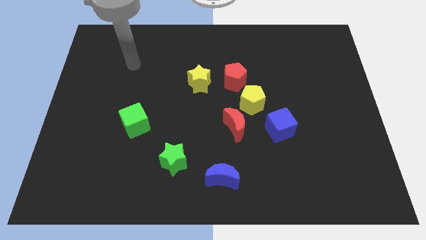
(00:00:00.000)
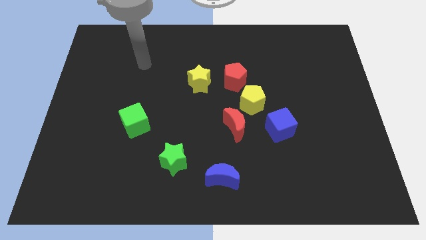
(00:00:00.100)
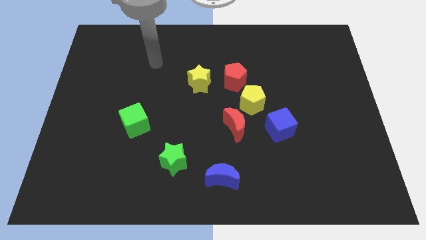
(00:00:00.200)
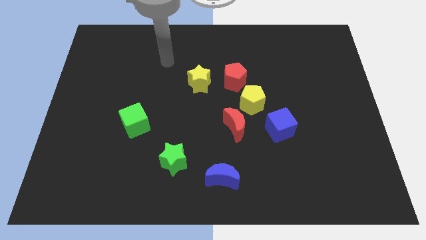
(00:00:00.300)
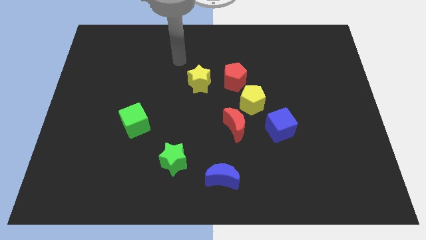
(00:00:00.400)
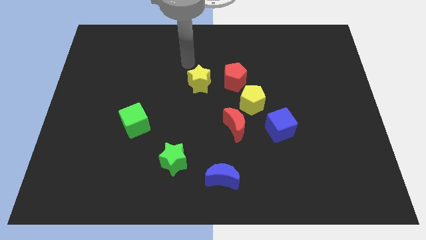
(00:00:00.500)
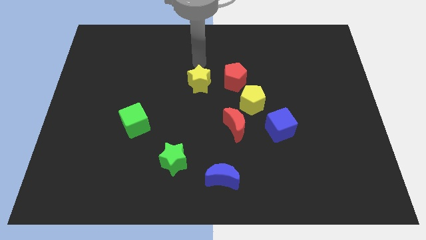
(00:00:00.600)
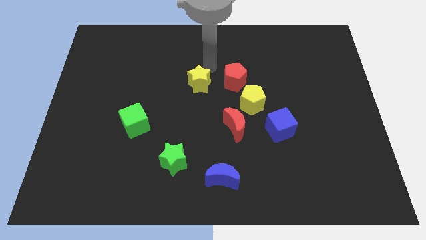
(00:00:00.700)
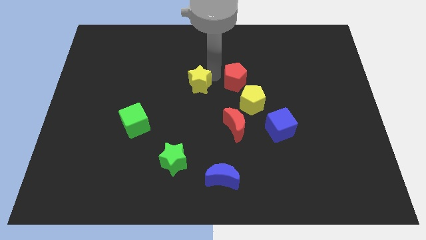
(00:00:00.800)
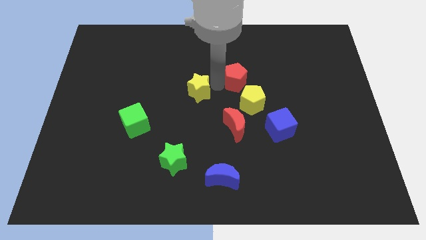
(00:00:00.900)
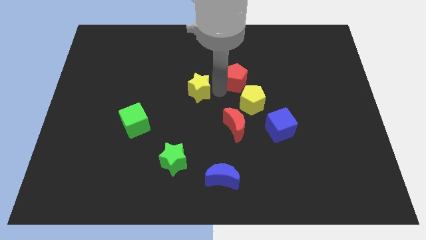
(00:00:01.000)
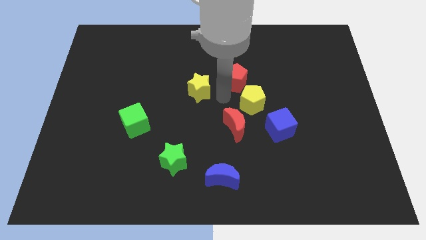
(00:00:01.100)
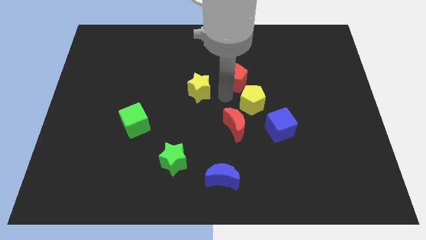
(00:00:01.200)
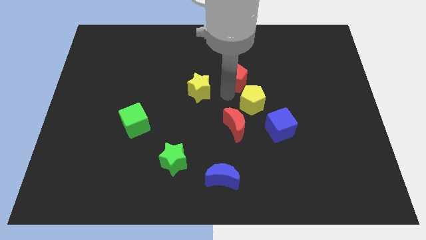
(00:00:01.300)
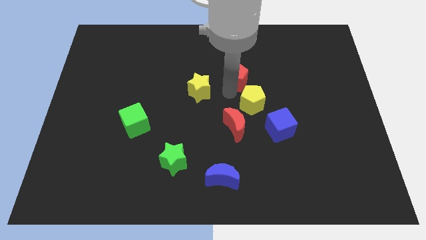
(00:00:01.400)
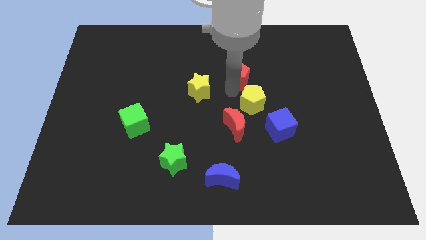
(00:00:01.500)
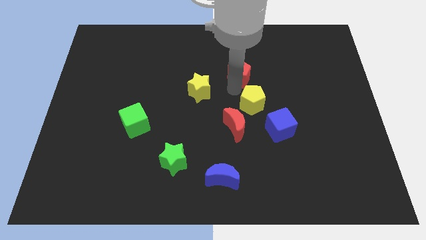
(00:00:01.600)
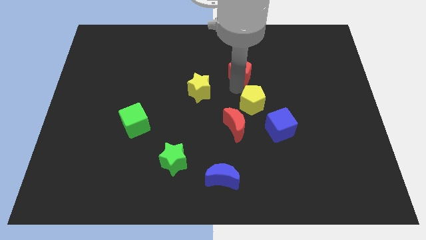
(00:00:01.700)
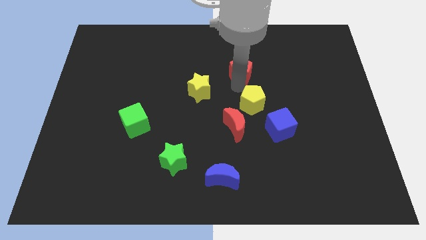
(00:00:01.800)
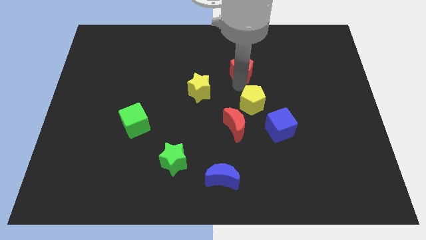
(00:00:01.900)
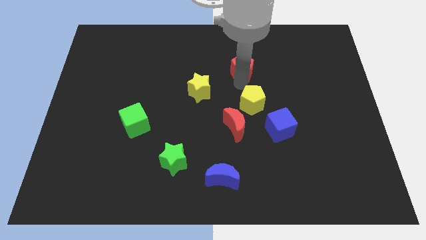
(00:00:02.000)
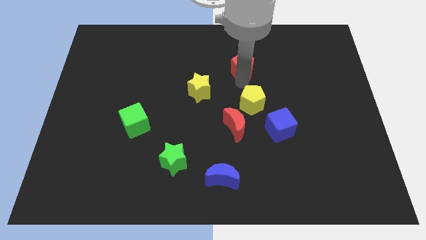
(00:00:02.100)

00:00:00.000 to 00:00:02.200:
move the red pentagon away from the yellow pentagon and yellow star

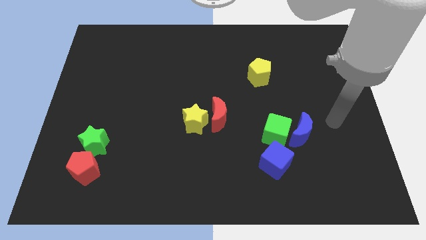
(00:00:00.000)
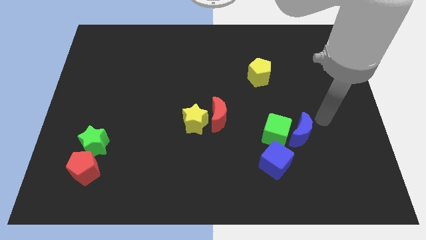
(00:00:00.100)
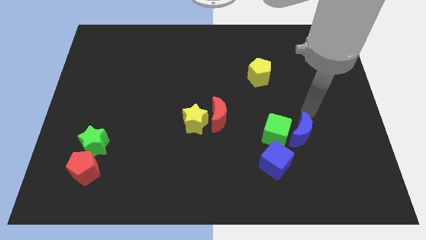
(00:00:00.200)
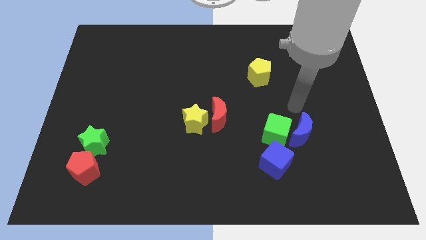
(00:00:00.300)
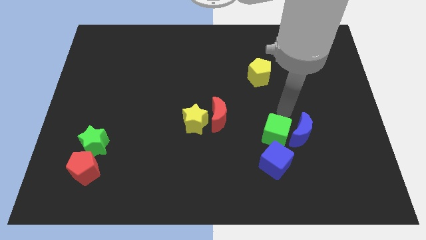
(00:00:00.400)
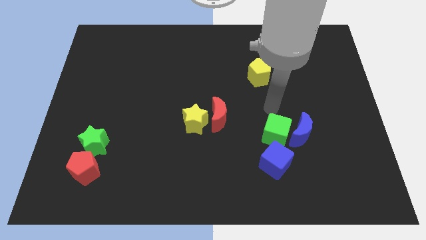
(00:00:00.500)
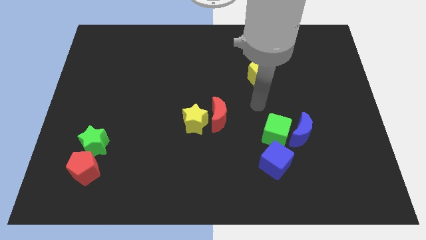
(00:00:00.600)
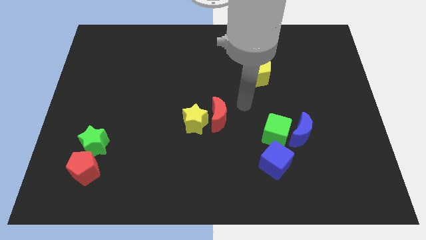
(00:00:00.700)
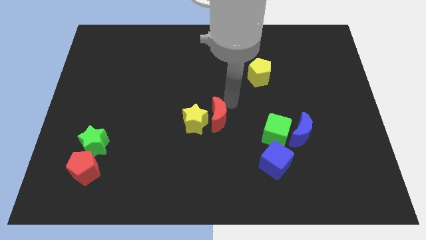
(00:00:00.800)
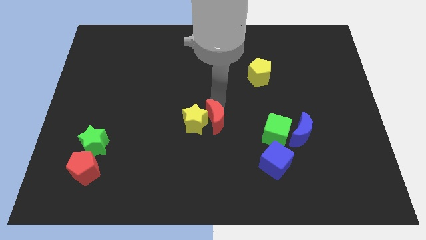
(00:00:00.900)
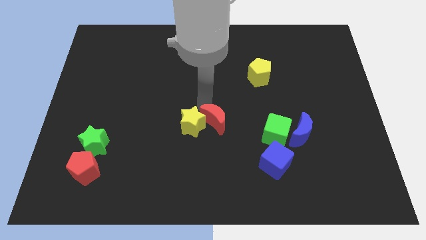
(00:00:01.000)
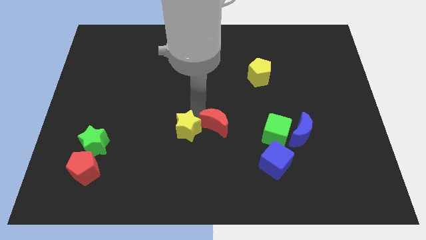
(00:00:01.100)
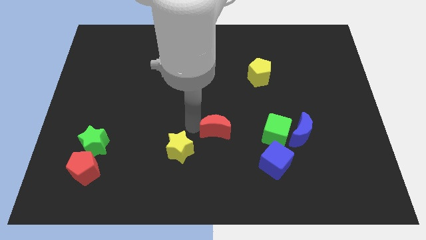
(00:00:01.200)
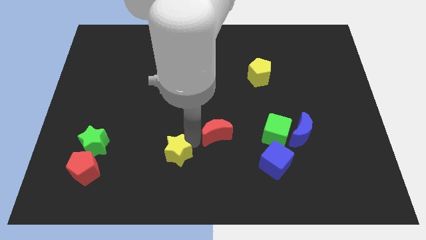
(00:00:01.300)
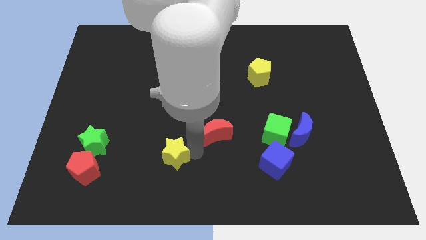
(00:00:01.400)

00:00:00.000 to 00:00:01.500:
move the red moon away from the yellow star

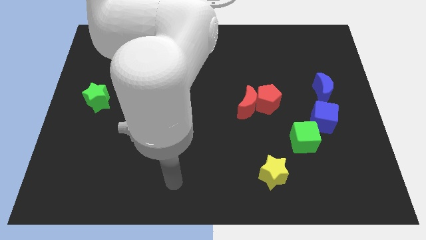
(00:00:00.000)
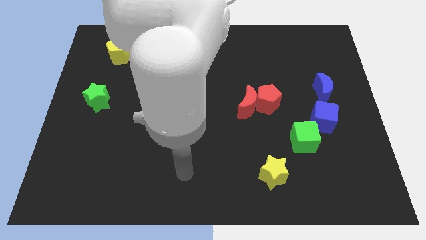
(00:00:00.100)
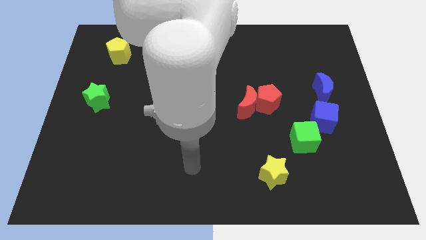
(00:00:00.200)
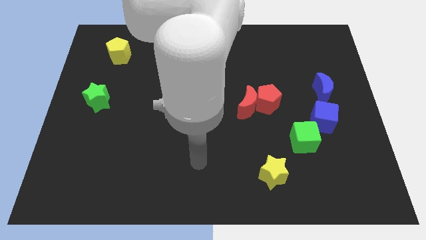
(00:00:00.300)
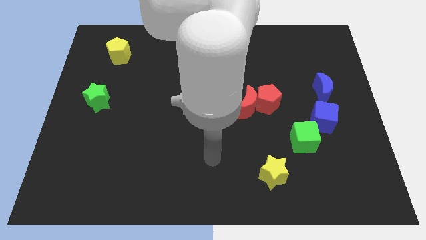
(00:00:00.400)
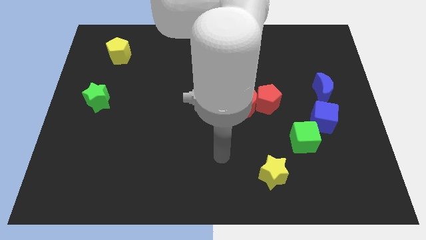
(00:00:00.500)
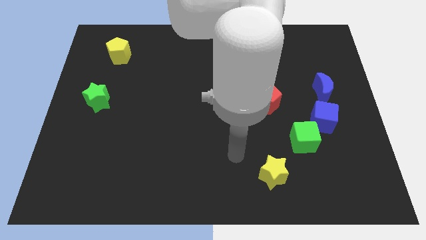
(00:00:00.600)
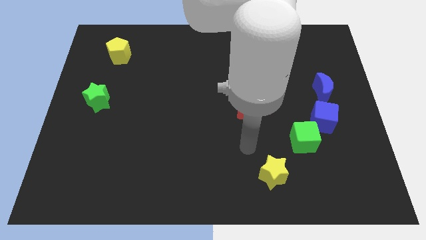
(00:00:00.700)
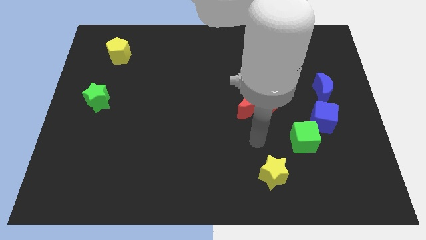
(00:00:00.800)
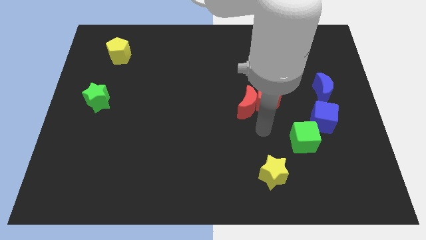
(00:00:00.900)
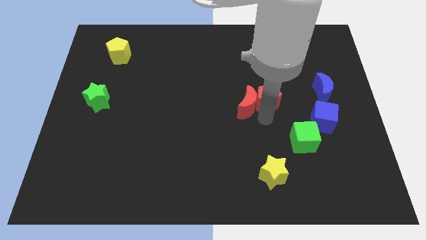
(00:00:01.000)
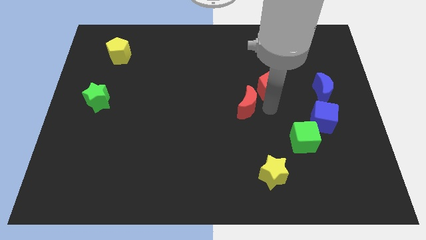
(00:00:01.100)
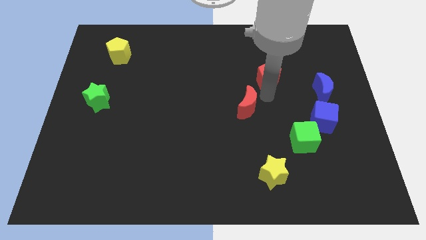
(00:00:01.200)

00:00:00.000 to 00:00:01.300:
move the red moon away from the red pentagon

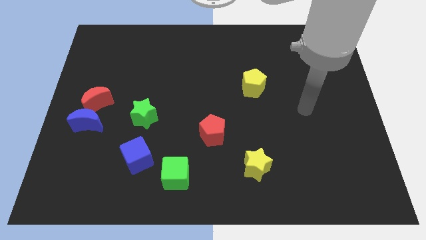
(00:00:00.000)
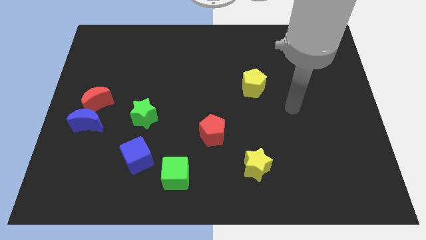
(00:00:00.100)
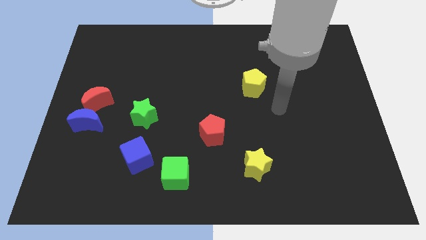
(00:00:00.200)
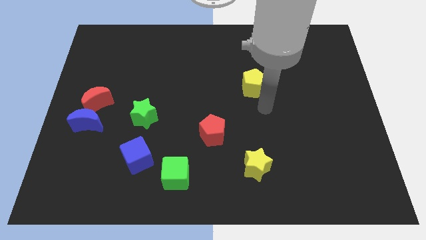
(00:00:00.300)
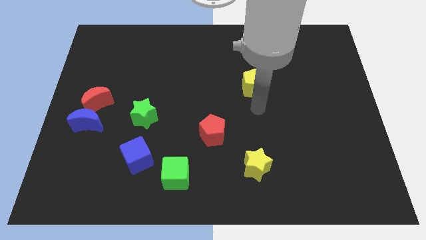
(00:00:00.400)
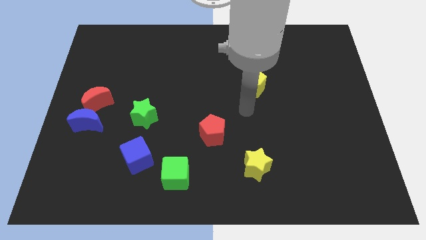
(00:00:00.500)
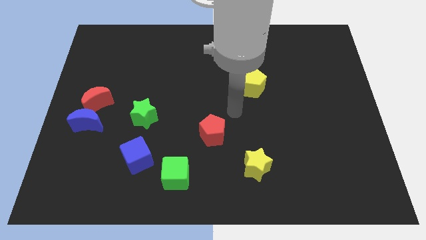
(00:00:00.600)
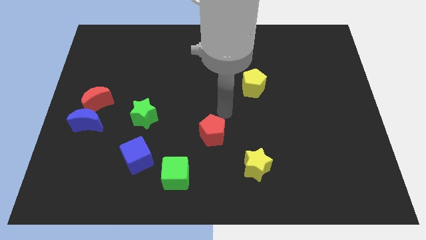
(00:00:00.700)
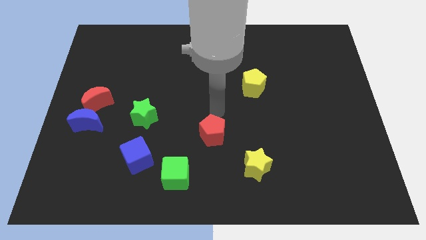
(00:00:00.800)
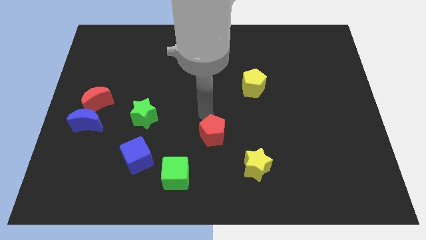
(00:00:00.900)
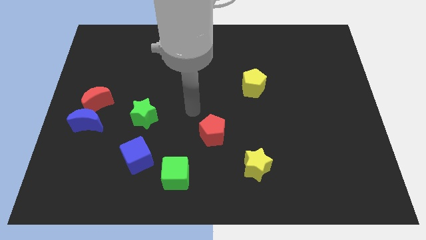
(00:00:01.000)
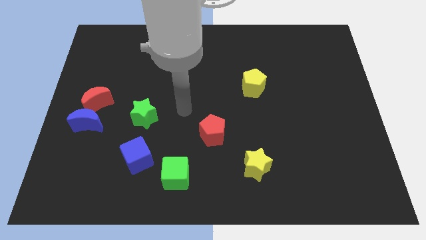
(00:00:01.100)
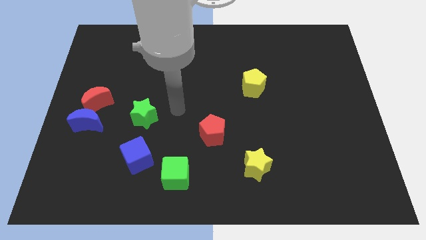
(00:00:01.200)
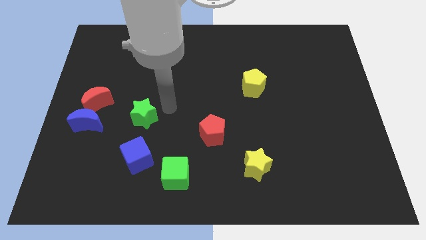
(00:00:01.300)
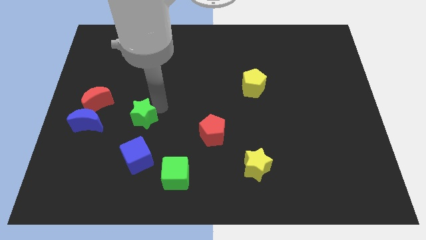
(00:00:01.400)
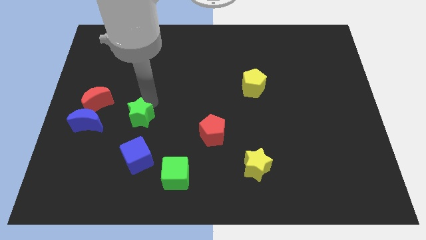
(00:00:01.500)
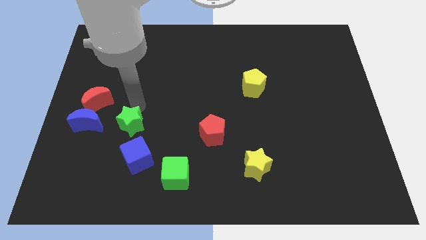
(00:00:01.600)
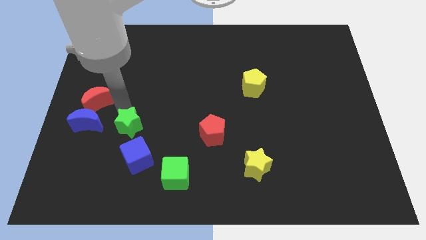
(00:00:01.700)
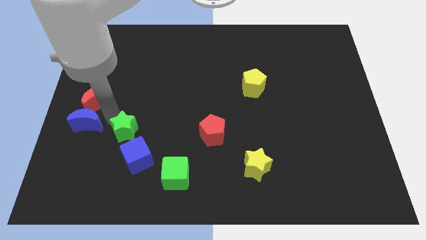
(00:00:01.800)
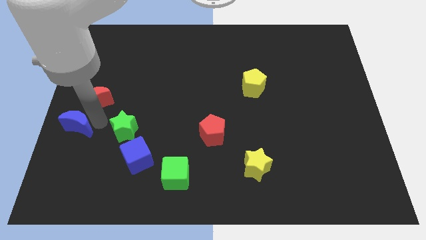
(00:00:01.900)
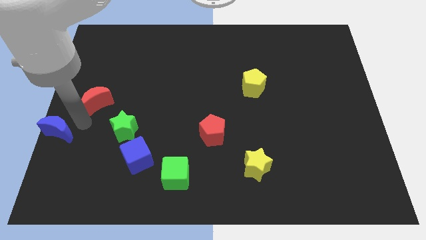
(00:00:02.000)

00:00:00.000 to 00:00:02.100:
separate the red moon from the blue moon

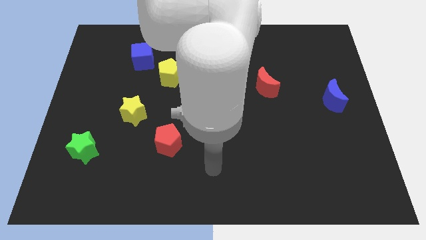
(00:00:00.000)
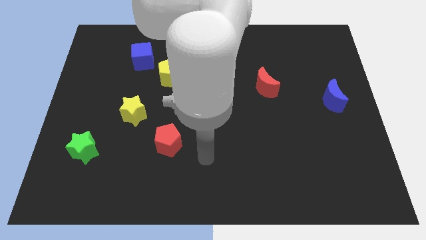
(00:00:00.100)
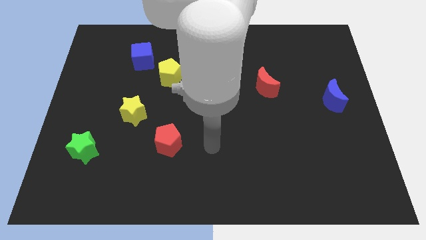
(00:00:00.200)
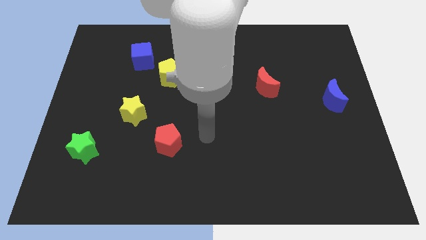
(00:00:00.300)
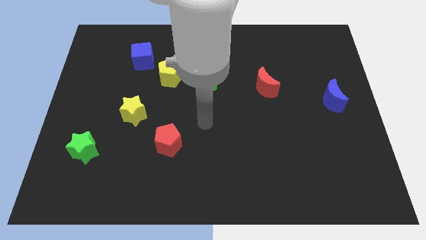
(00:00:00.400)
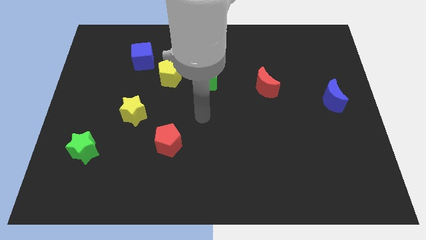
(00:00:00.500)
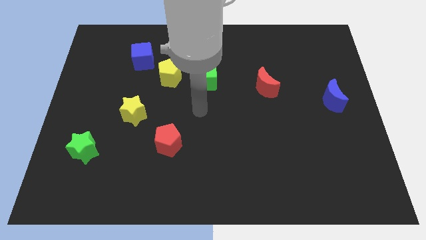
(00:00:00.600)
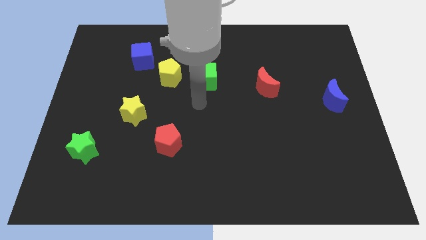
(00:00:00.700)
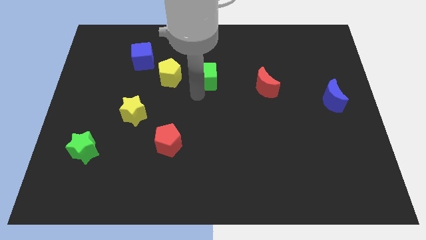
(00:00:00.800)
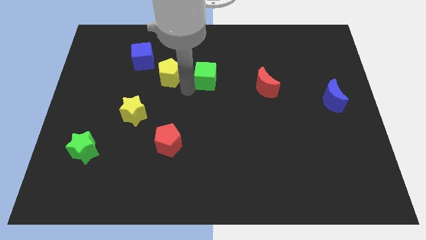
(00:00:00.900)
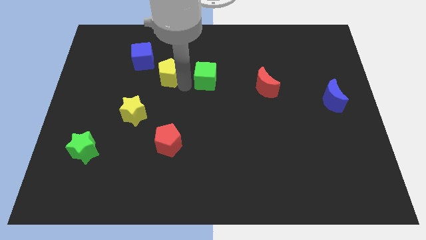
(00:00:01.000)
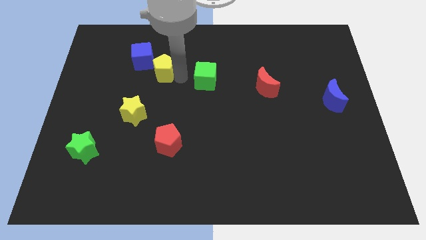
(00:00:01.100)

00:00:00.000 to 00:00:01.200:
move the green cube away from the yellow pentagon

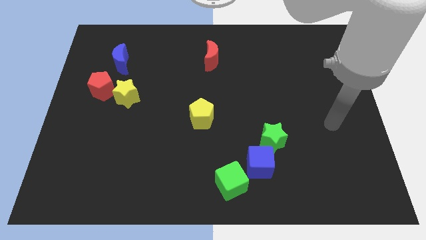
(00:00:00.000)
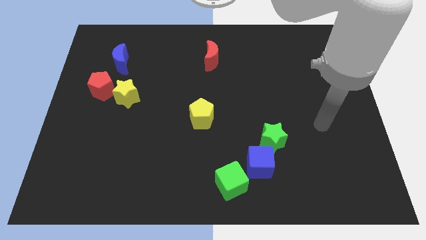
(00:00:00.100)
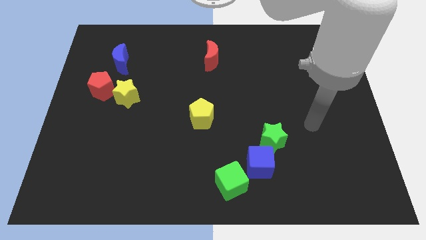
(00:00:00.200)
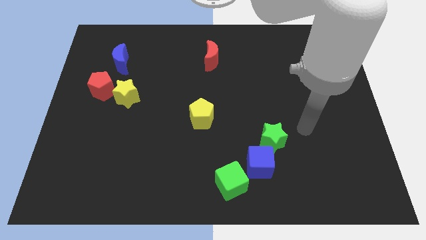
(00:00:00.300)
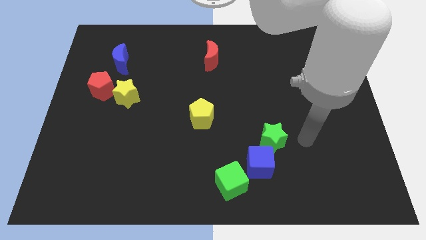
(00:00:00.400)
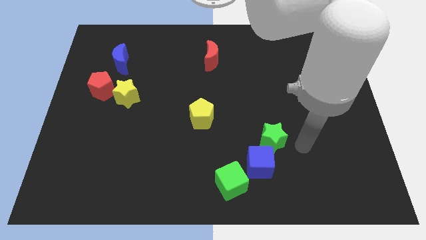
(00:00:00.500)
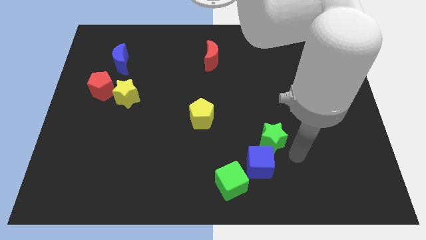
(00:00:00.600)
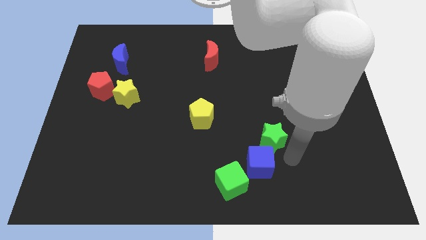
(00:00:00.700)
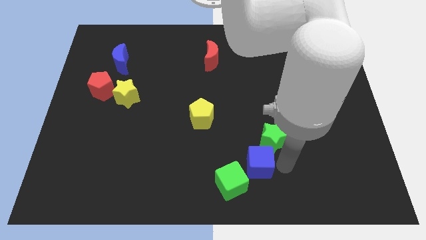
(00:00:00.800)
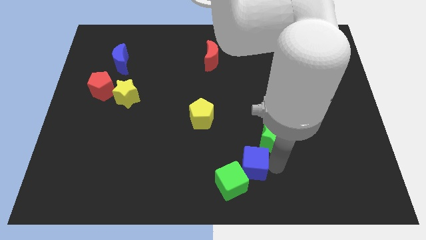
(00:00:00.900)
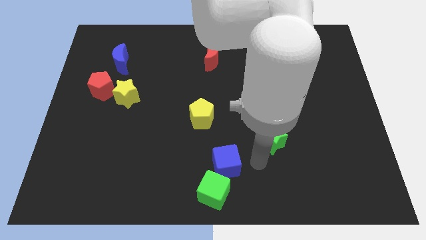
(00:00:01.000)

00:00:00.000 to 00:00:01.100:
move the green star away from the blue cube
